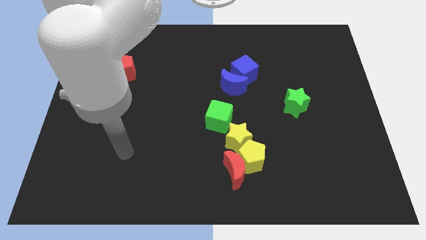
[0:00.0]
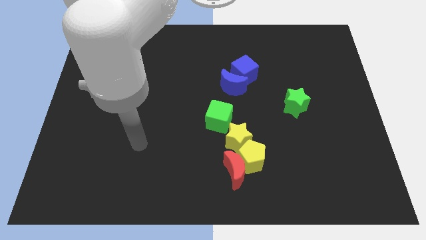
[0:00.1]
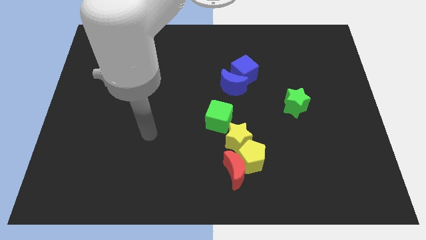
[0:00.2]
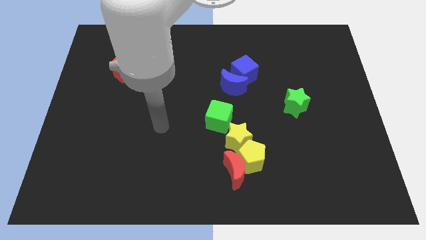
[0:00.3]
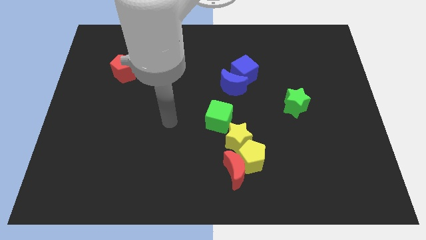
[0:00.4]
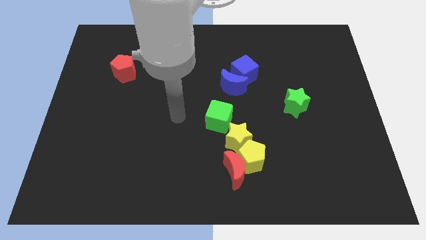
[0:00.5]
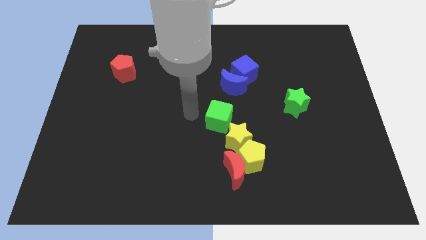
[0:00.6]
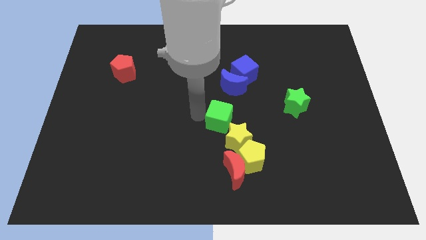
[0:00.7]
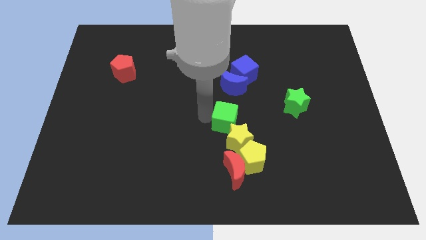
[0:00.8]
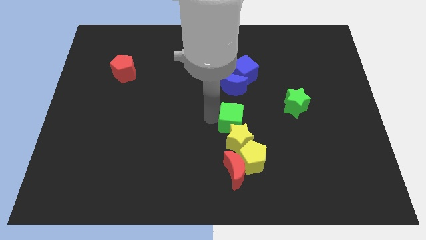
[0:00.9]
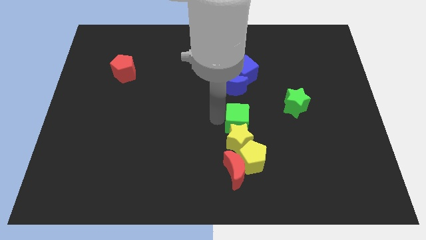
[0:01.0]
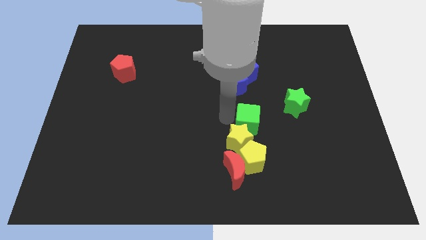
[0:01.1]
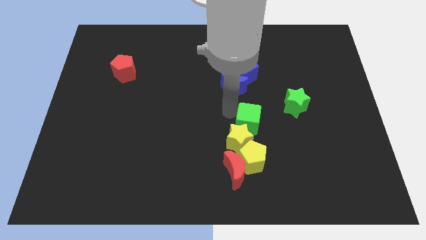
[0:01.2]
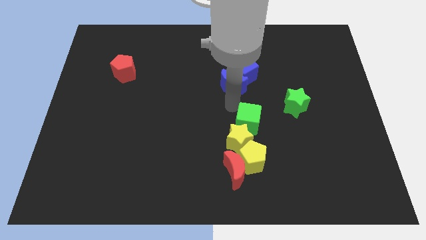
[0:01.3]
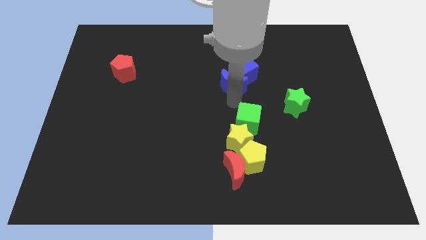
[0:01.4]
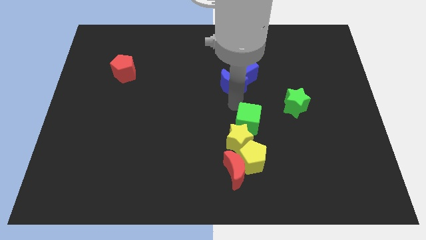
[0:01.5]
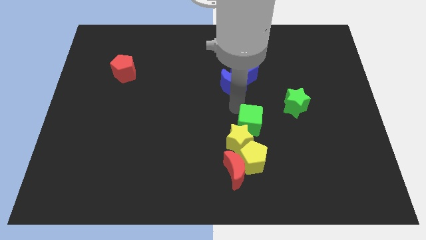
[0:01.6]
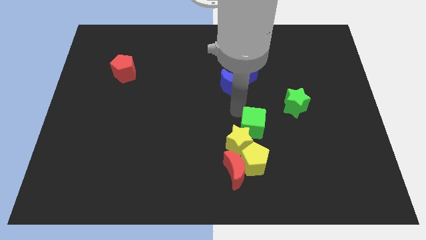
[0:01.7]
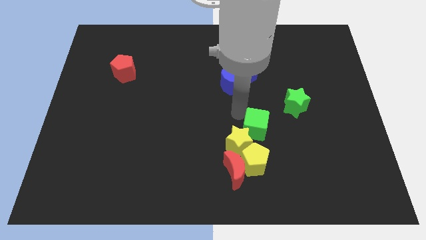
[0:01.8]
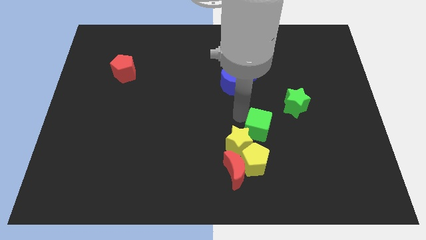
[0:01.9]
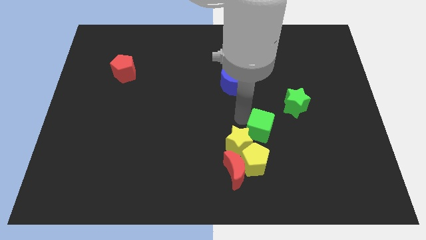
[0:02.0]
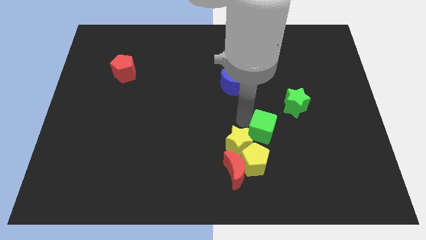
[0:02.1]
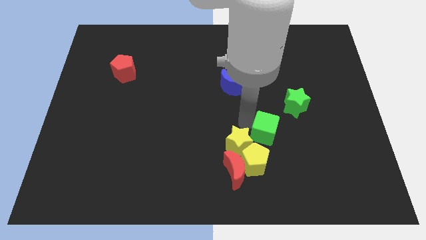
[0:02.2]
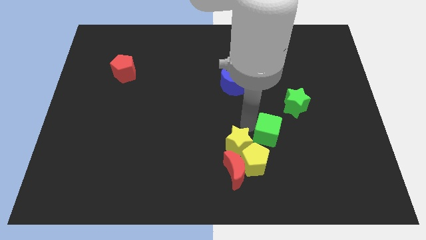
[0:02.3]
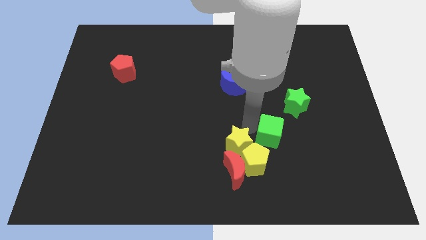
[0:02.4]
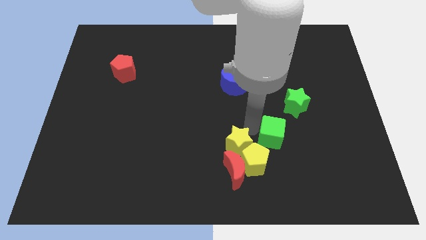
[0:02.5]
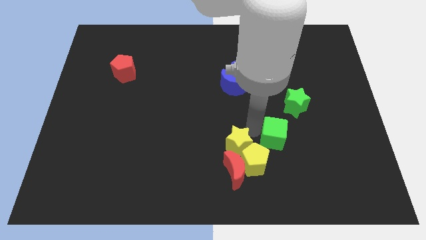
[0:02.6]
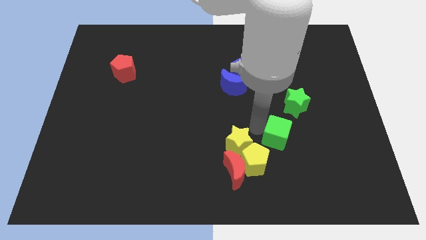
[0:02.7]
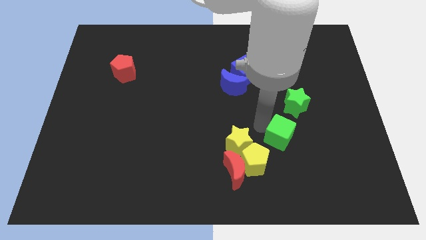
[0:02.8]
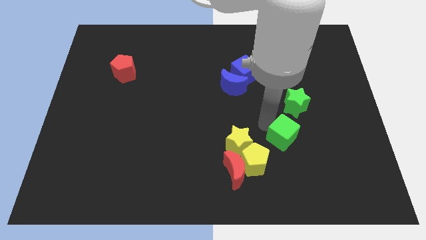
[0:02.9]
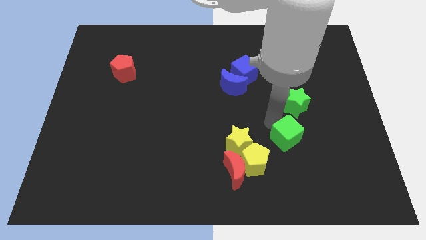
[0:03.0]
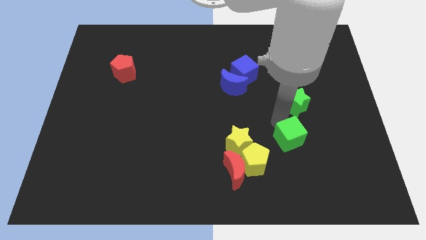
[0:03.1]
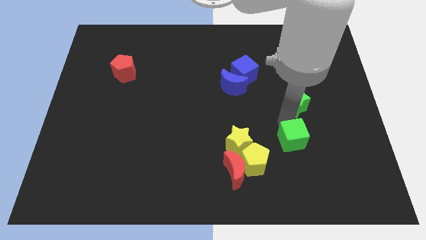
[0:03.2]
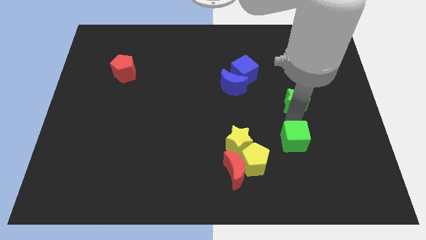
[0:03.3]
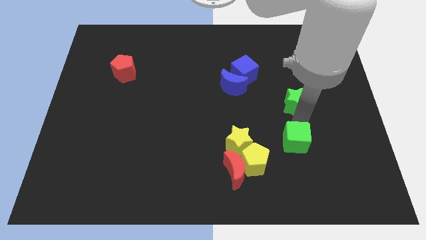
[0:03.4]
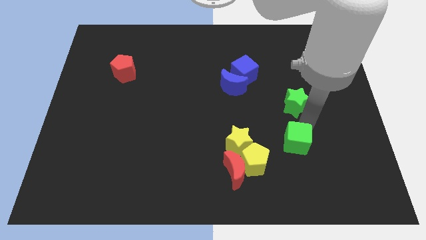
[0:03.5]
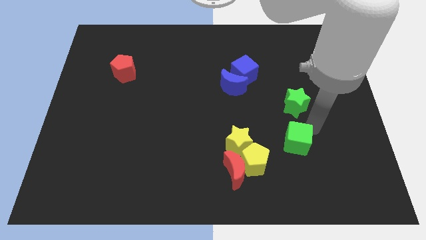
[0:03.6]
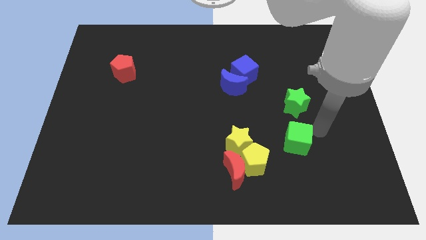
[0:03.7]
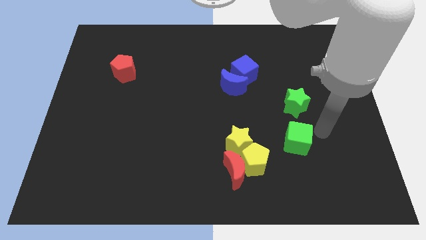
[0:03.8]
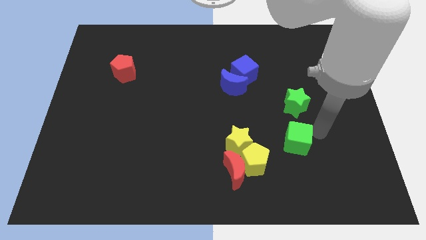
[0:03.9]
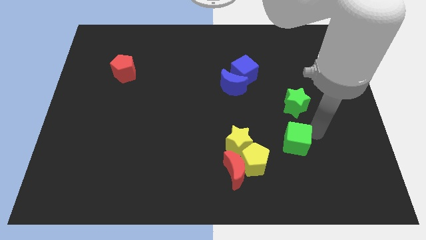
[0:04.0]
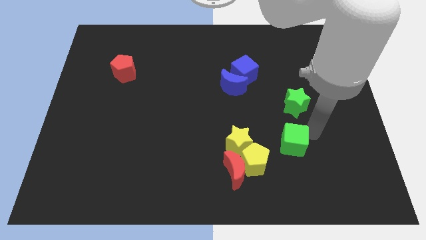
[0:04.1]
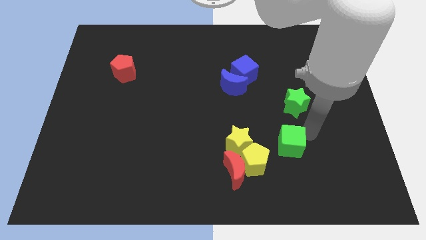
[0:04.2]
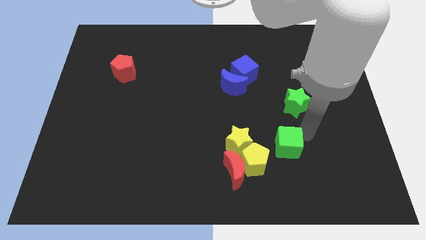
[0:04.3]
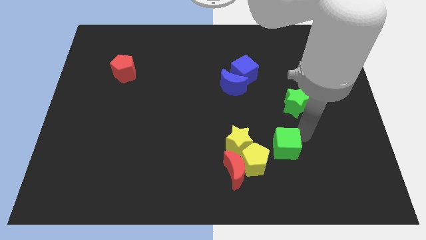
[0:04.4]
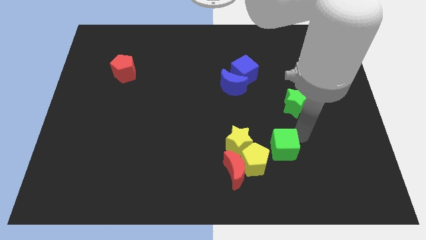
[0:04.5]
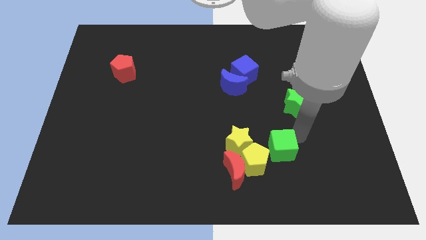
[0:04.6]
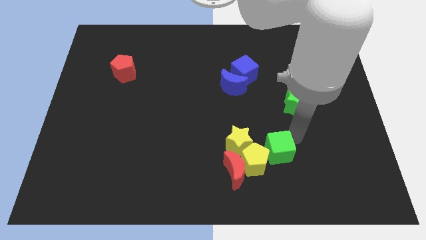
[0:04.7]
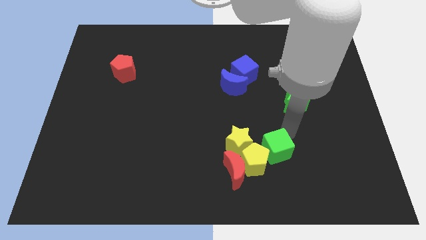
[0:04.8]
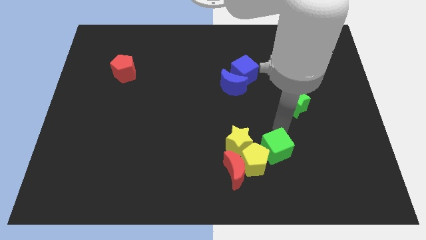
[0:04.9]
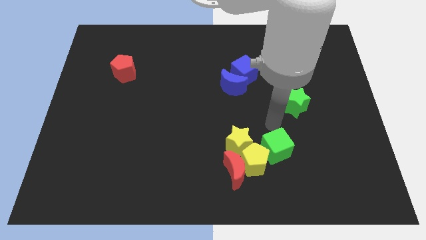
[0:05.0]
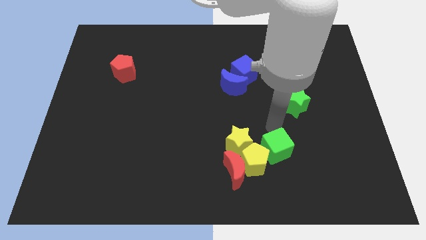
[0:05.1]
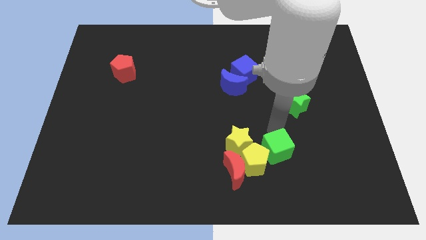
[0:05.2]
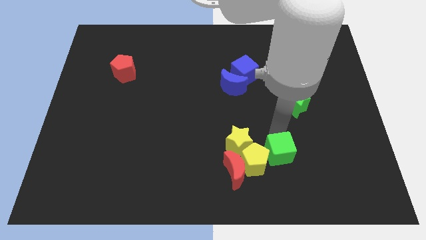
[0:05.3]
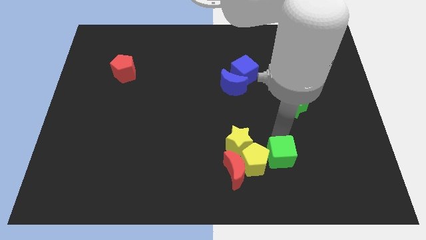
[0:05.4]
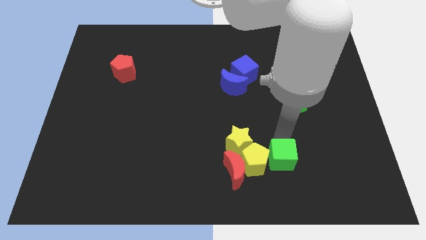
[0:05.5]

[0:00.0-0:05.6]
push the green cube to the bottom right side of the yellow pentagon

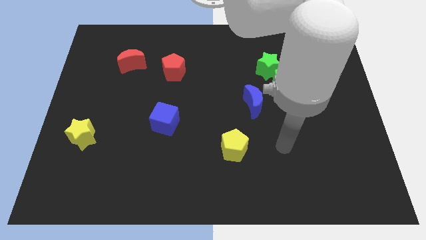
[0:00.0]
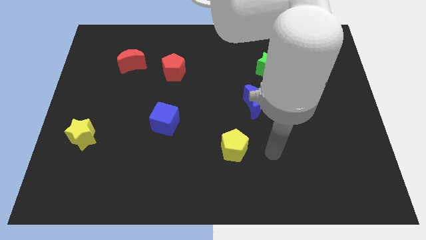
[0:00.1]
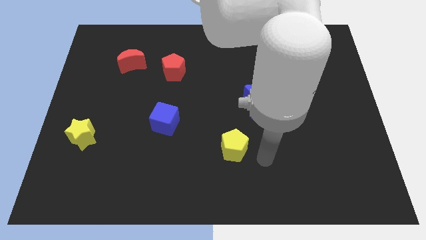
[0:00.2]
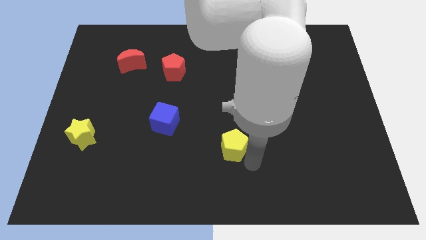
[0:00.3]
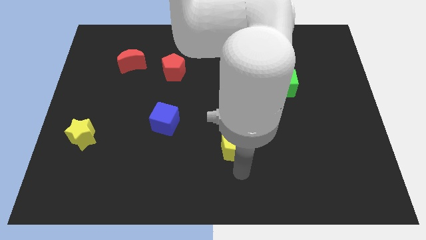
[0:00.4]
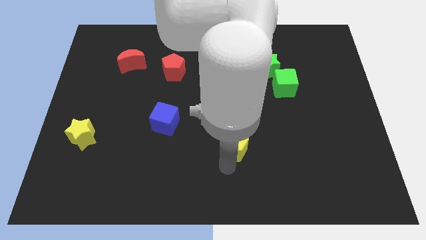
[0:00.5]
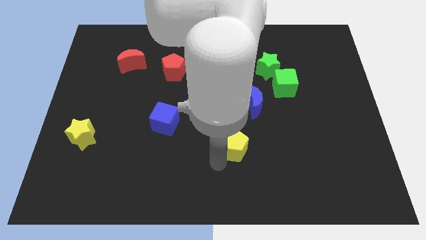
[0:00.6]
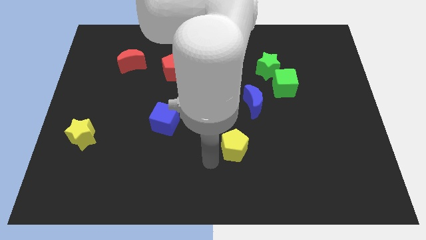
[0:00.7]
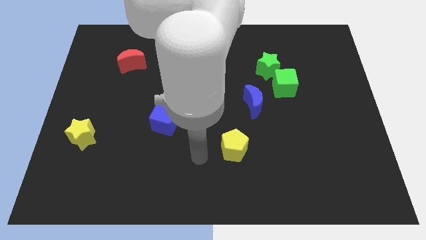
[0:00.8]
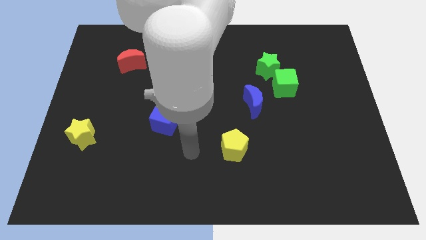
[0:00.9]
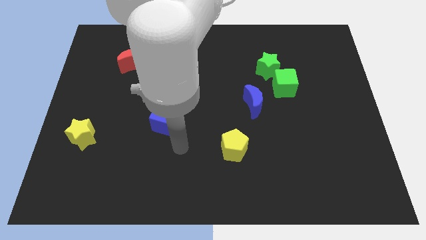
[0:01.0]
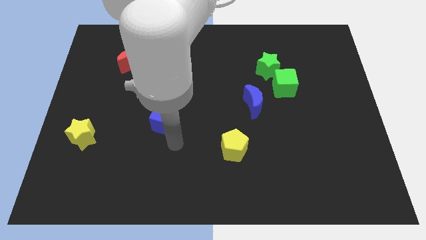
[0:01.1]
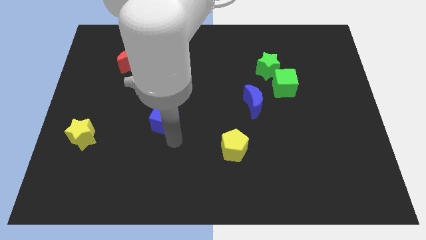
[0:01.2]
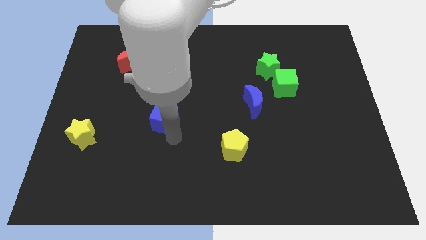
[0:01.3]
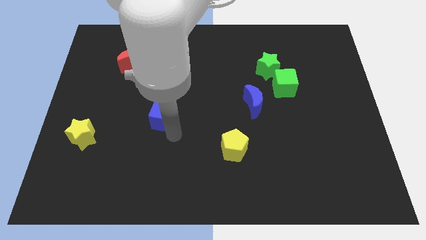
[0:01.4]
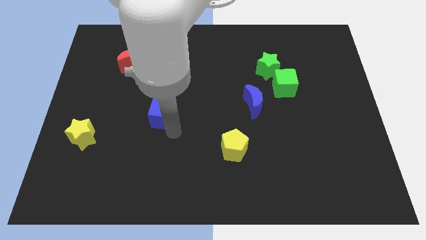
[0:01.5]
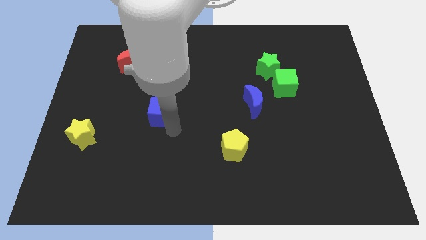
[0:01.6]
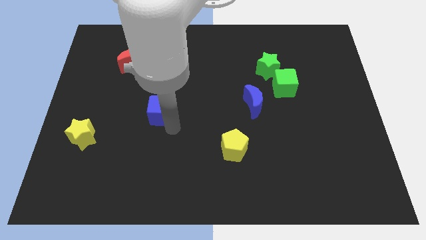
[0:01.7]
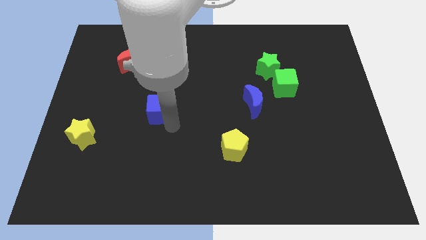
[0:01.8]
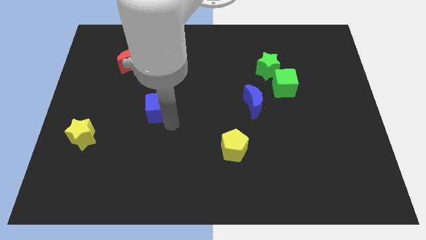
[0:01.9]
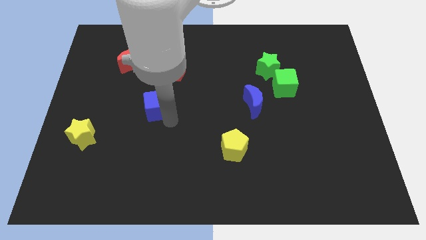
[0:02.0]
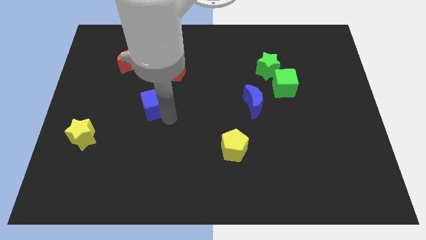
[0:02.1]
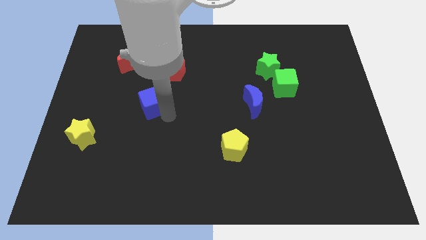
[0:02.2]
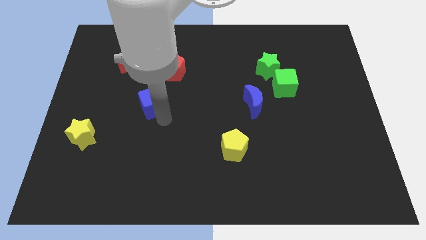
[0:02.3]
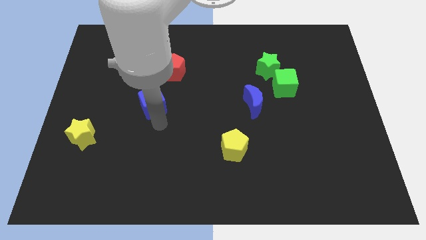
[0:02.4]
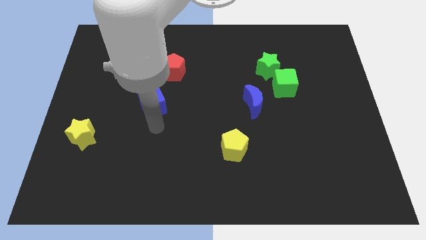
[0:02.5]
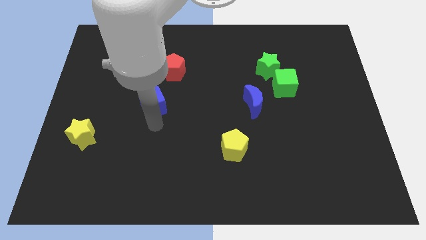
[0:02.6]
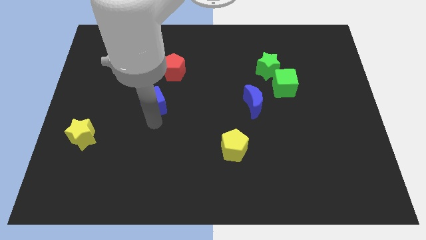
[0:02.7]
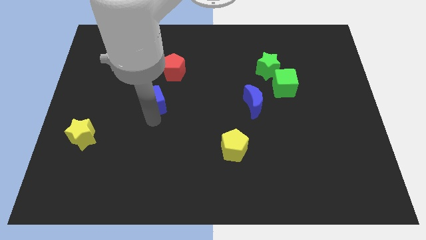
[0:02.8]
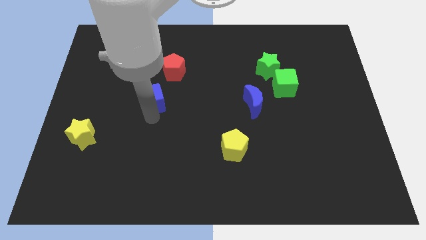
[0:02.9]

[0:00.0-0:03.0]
slide the blue cube diagonally down and to the left of the red pentagon
